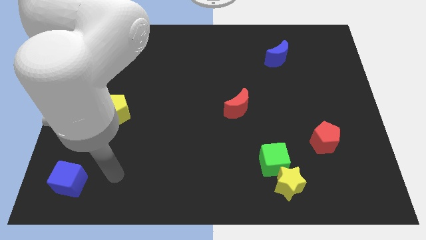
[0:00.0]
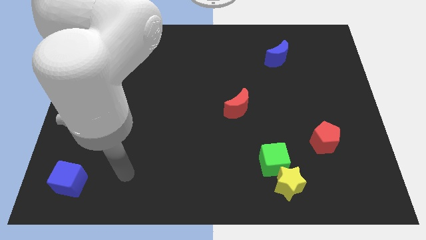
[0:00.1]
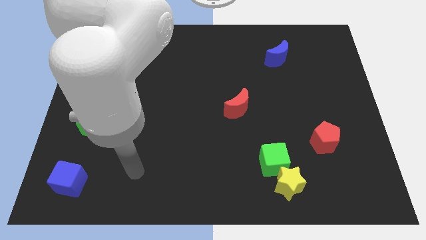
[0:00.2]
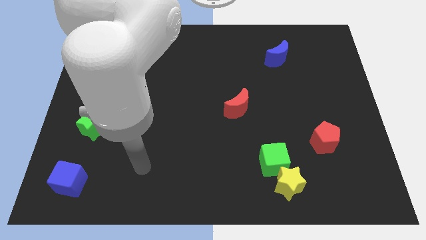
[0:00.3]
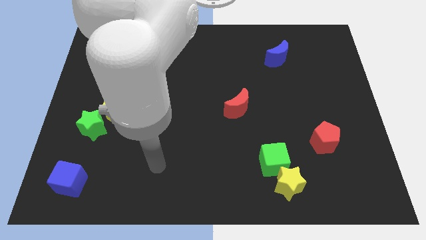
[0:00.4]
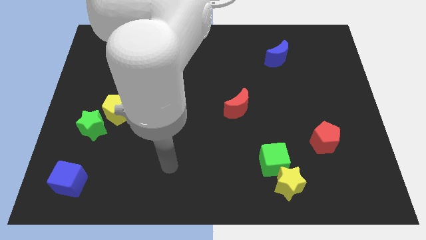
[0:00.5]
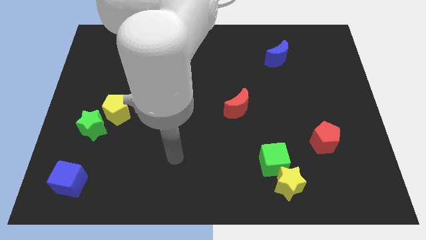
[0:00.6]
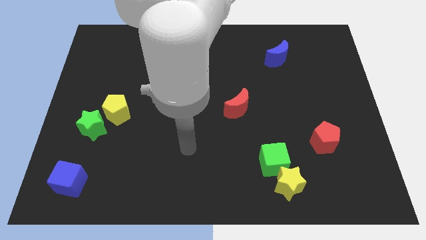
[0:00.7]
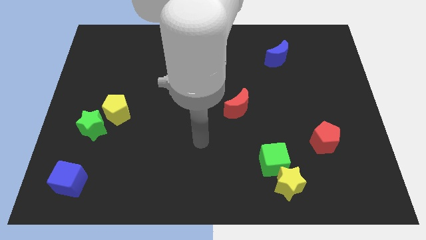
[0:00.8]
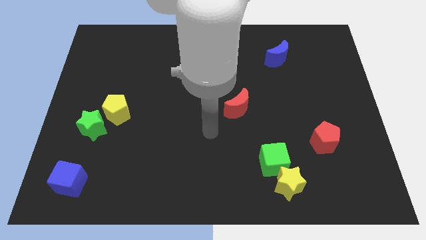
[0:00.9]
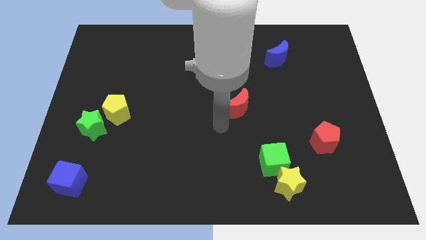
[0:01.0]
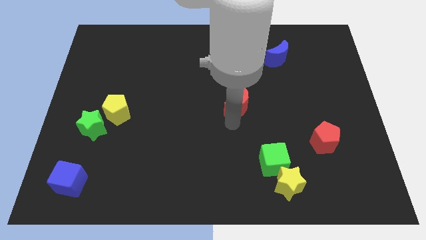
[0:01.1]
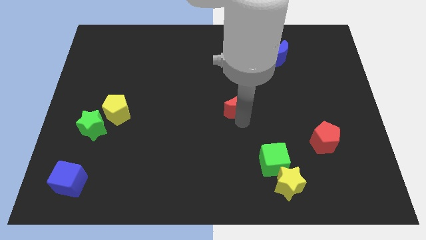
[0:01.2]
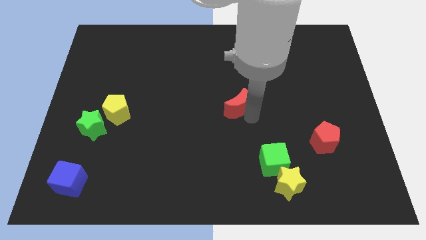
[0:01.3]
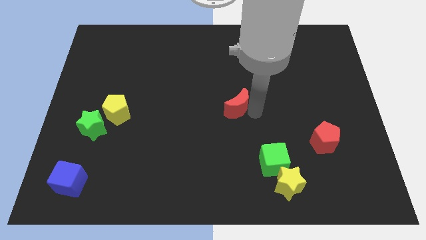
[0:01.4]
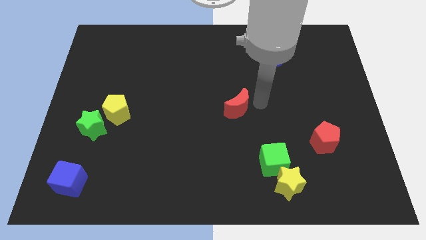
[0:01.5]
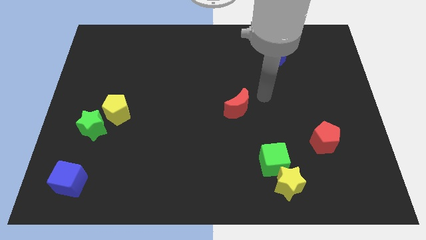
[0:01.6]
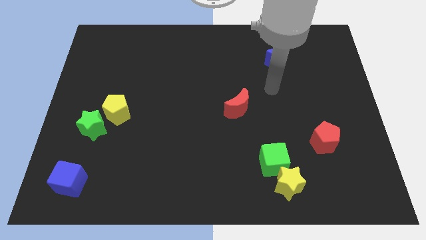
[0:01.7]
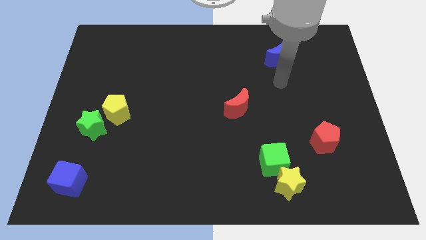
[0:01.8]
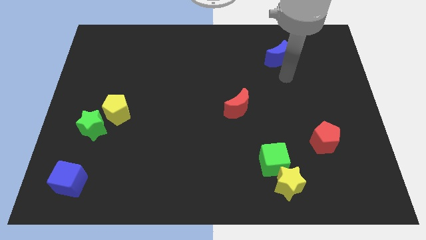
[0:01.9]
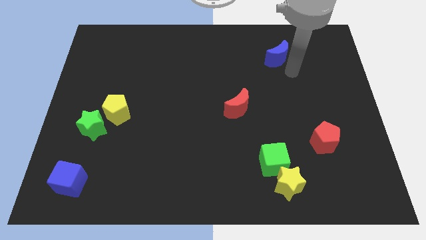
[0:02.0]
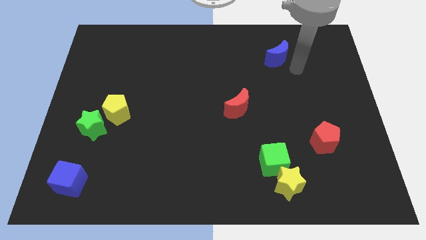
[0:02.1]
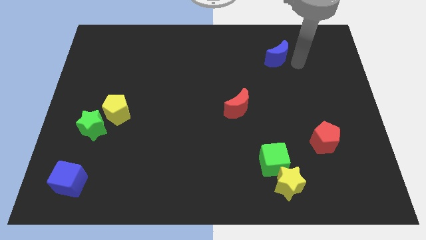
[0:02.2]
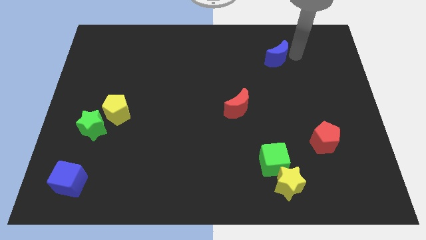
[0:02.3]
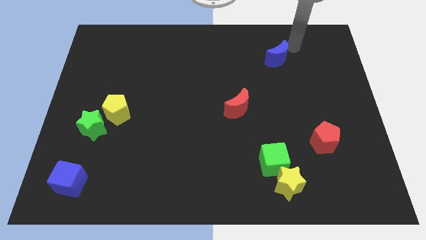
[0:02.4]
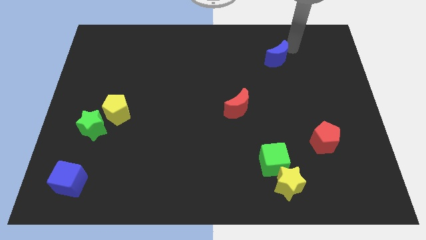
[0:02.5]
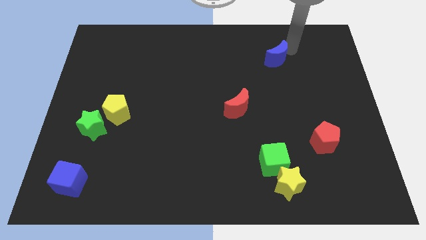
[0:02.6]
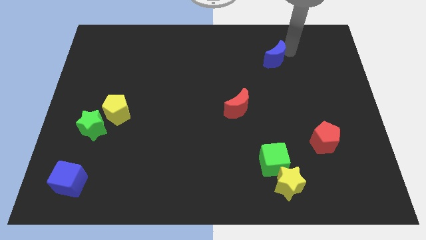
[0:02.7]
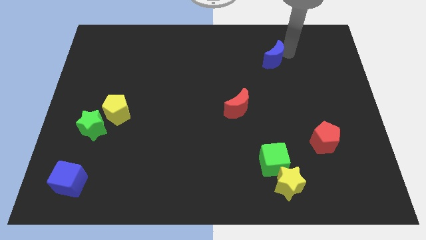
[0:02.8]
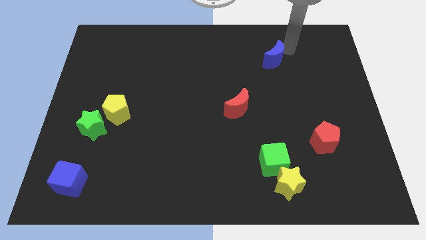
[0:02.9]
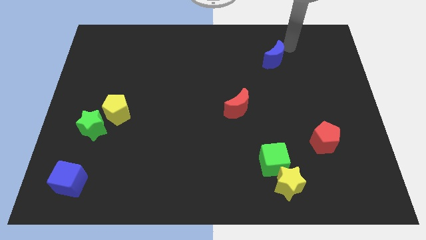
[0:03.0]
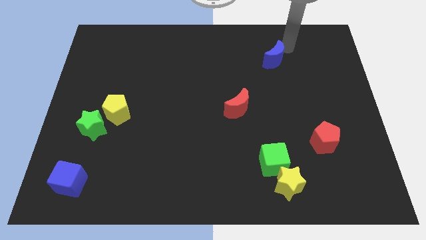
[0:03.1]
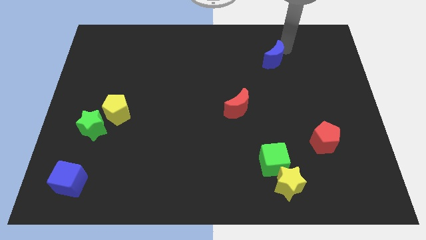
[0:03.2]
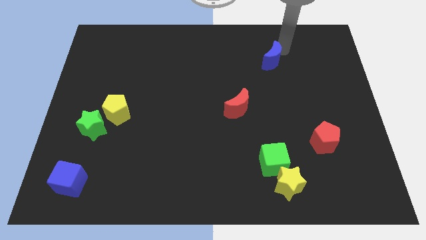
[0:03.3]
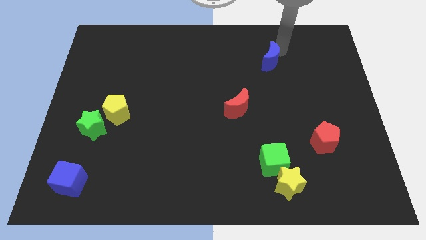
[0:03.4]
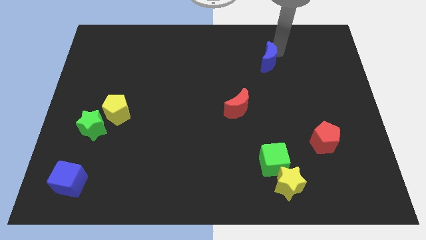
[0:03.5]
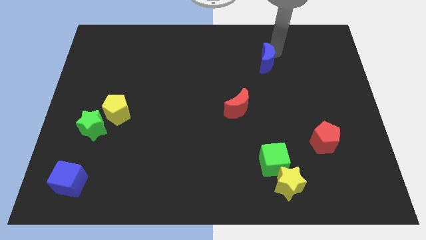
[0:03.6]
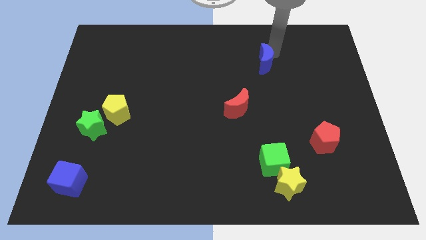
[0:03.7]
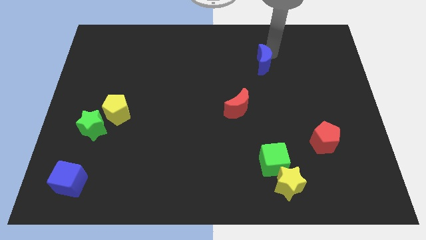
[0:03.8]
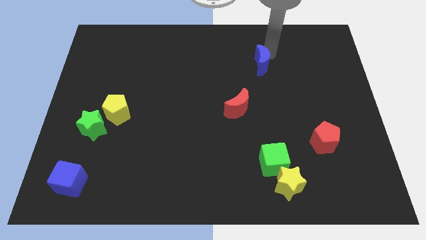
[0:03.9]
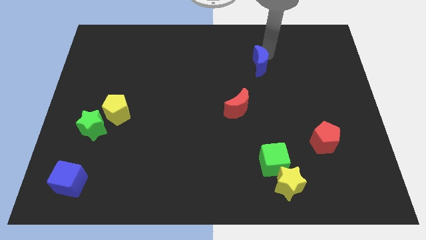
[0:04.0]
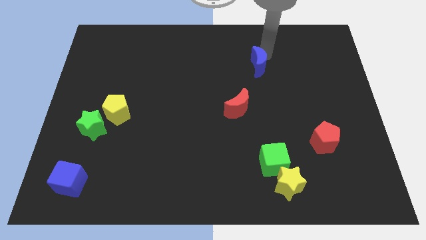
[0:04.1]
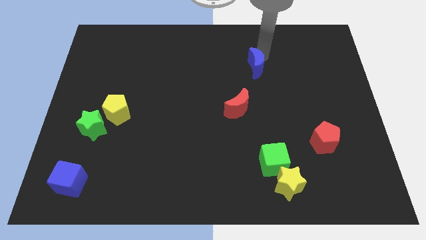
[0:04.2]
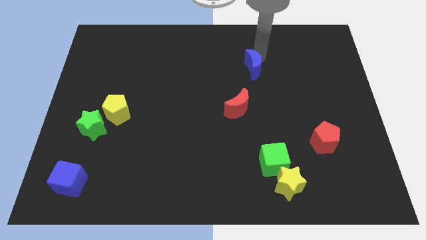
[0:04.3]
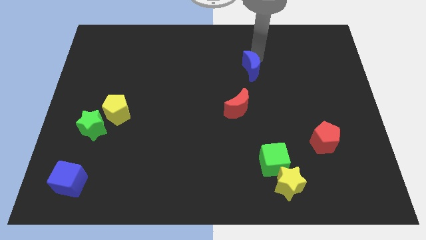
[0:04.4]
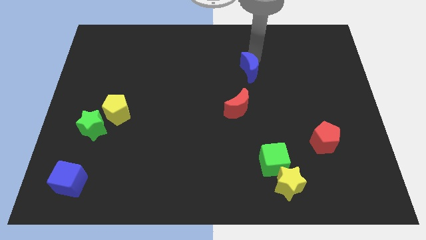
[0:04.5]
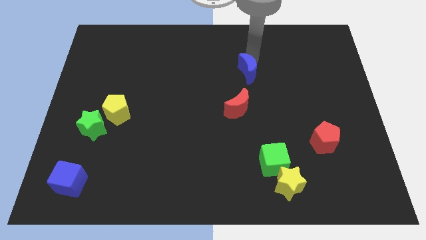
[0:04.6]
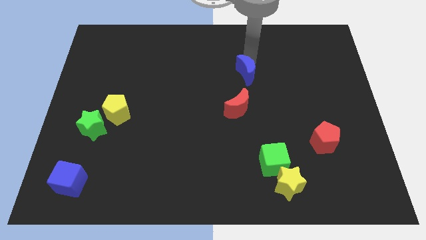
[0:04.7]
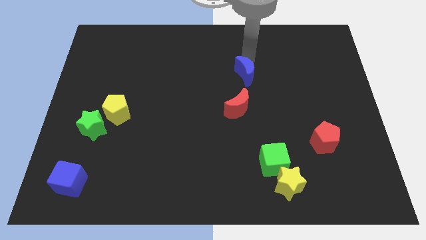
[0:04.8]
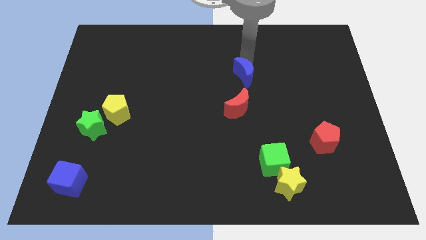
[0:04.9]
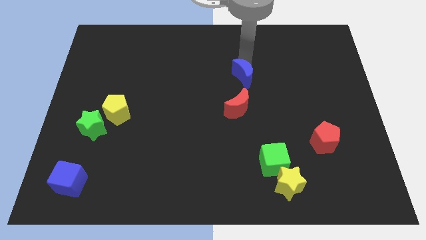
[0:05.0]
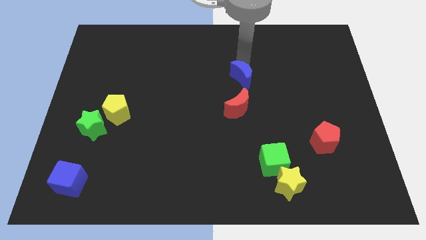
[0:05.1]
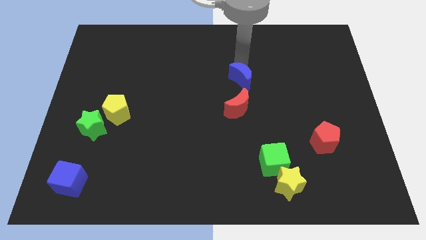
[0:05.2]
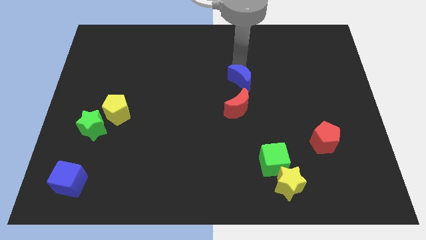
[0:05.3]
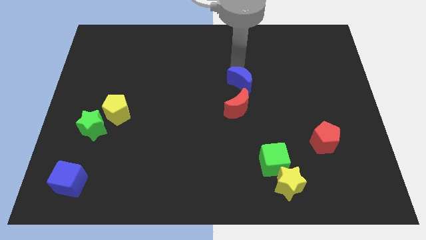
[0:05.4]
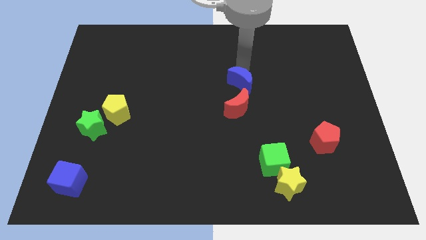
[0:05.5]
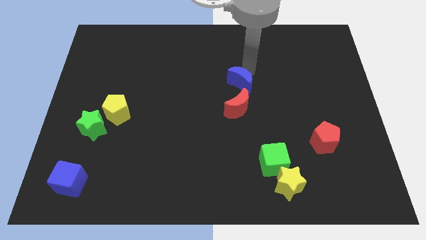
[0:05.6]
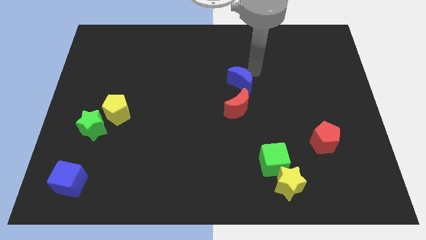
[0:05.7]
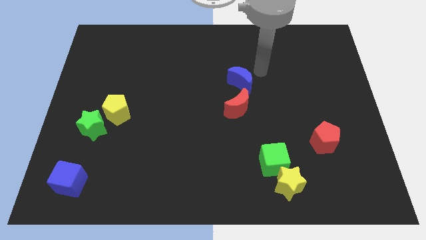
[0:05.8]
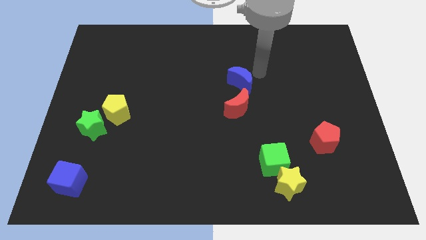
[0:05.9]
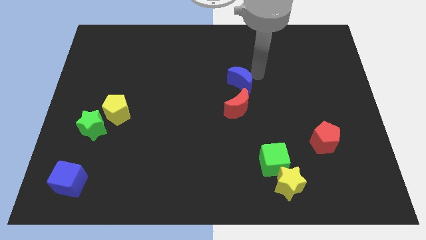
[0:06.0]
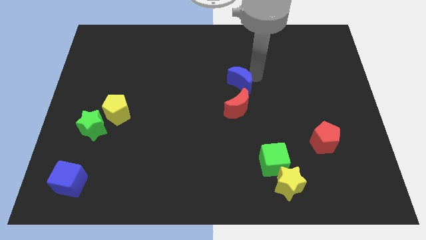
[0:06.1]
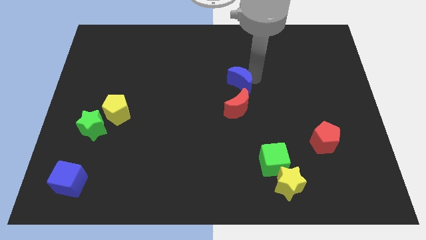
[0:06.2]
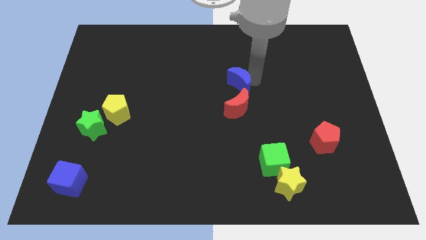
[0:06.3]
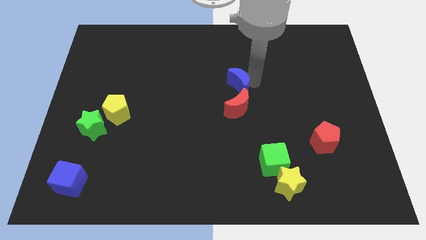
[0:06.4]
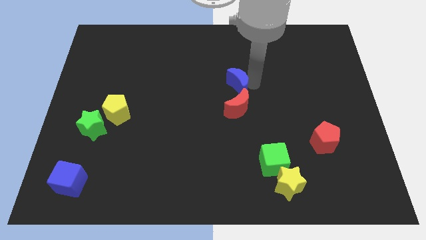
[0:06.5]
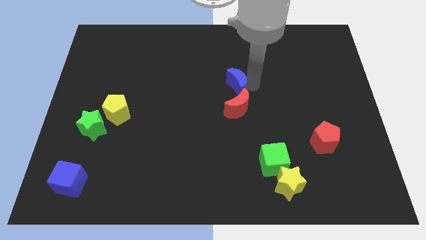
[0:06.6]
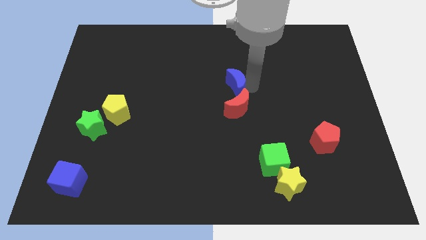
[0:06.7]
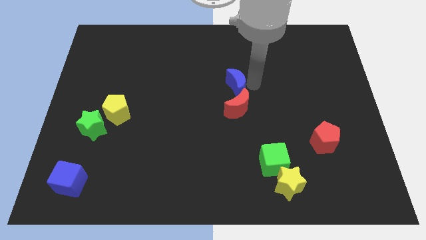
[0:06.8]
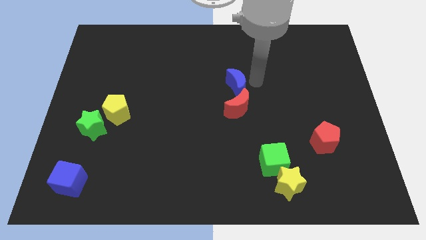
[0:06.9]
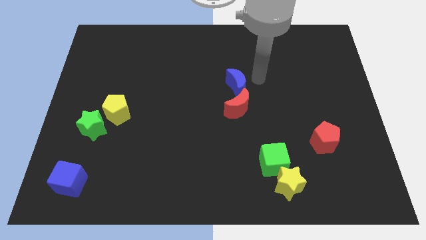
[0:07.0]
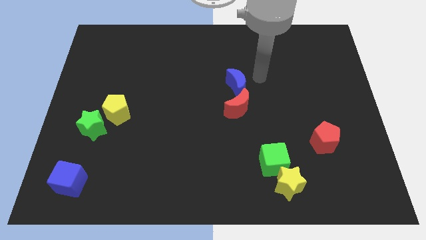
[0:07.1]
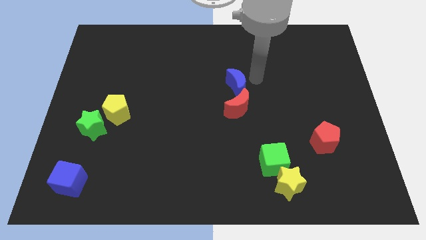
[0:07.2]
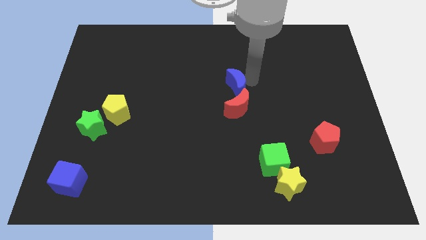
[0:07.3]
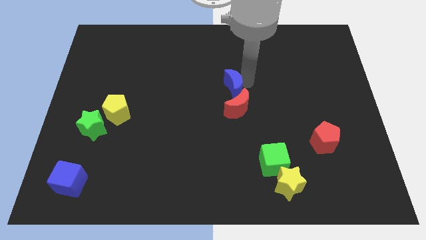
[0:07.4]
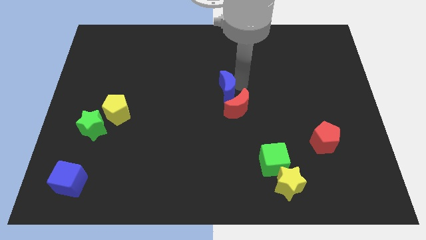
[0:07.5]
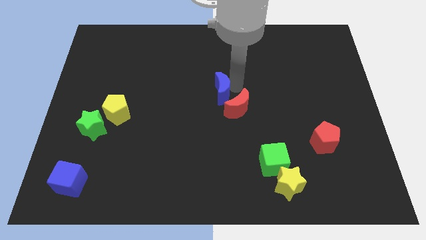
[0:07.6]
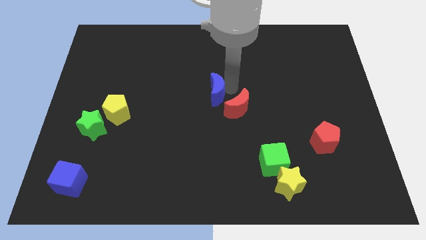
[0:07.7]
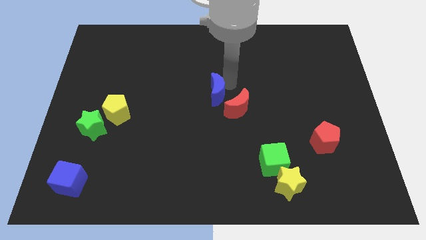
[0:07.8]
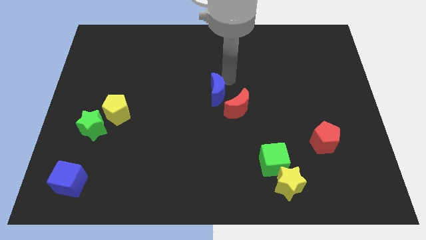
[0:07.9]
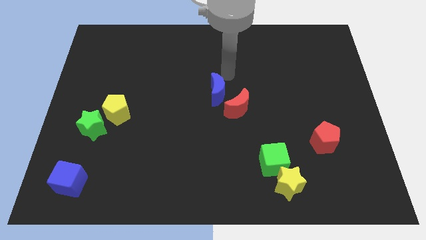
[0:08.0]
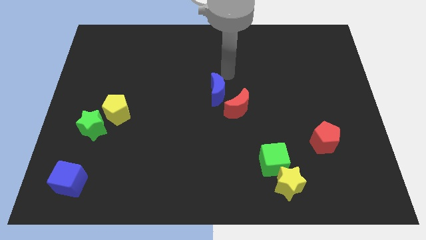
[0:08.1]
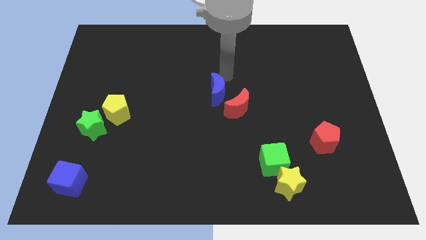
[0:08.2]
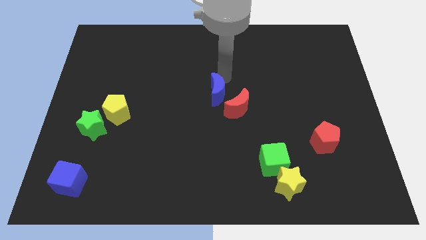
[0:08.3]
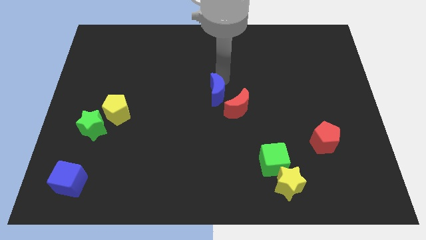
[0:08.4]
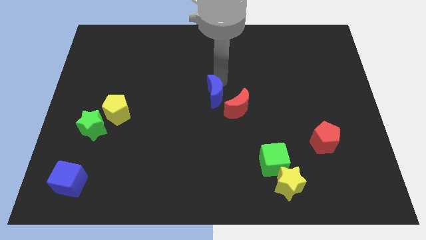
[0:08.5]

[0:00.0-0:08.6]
push the blue moon diagonally down and to the left
